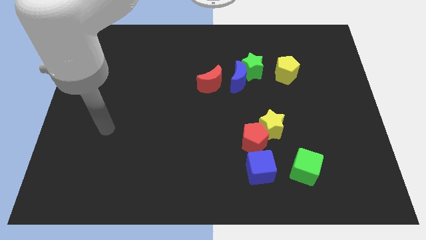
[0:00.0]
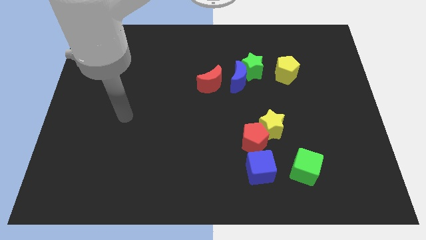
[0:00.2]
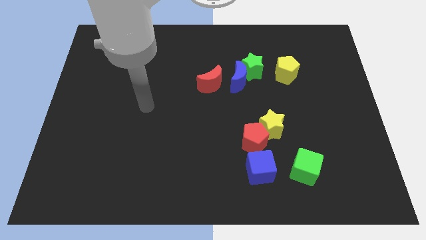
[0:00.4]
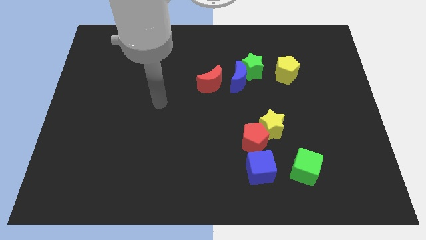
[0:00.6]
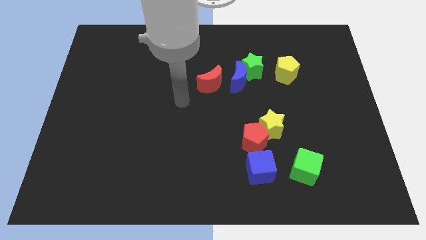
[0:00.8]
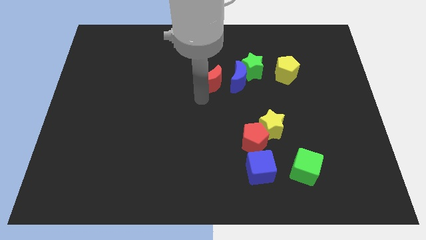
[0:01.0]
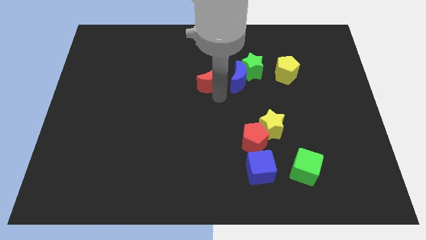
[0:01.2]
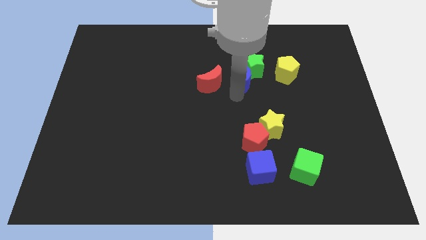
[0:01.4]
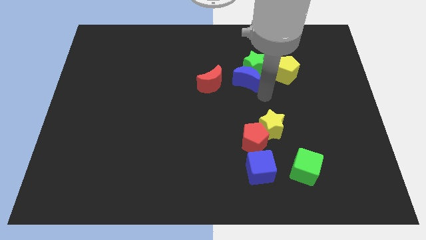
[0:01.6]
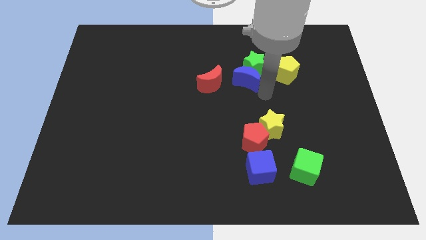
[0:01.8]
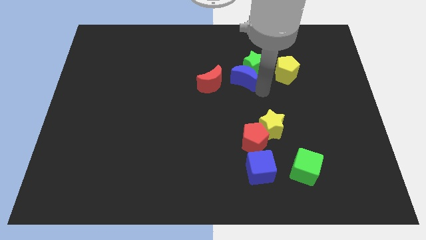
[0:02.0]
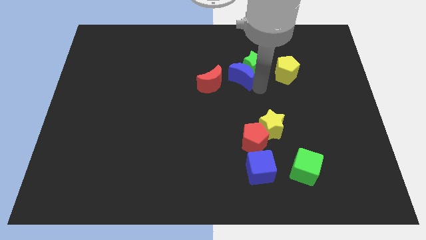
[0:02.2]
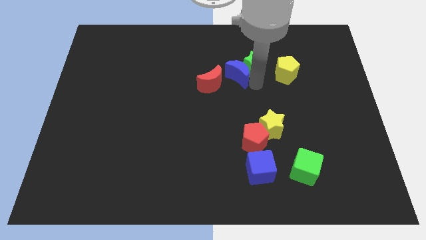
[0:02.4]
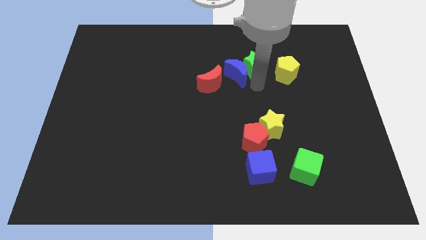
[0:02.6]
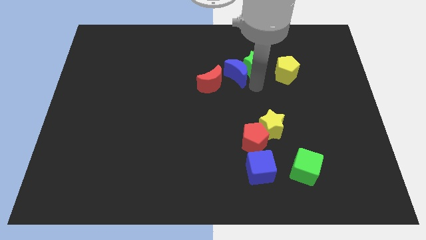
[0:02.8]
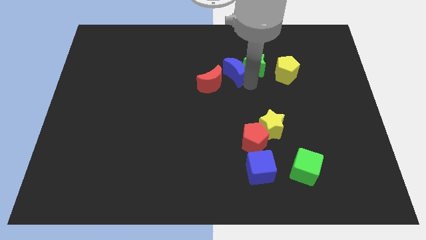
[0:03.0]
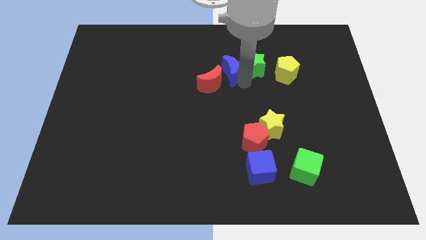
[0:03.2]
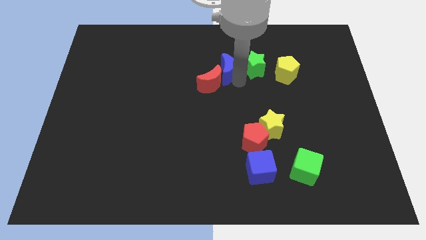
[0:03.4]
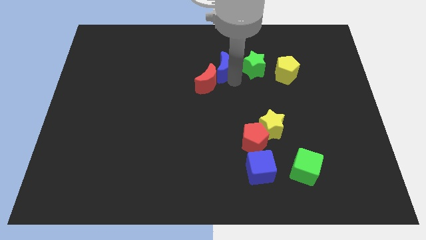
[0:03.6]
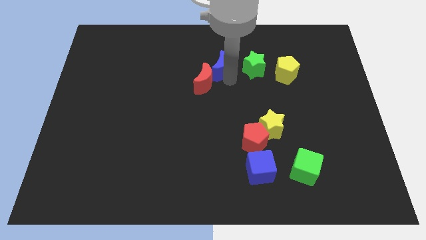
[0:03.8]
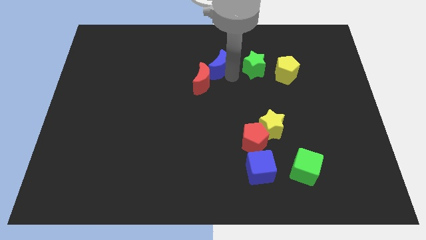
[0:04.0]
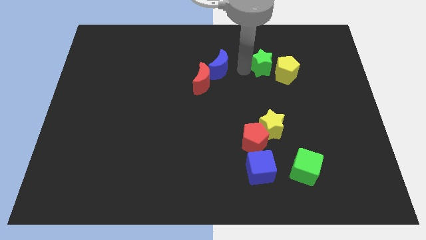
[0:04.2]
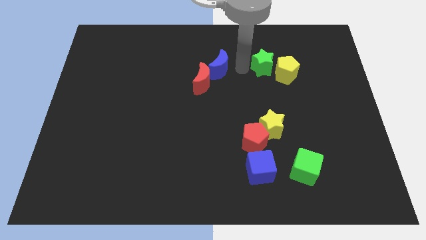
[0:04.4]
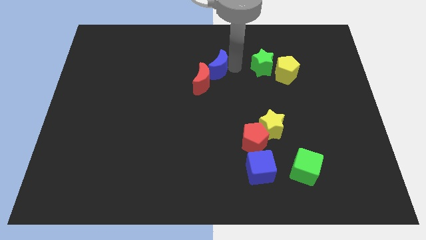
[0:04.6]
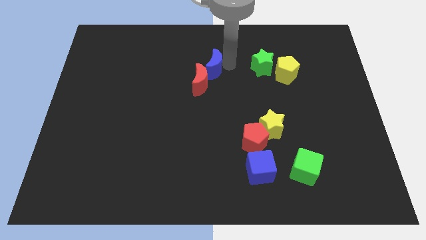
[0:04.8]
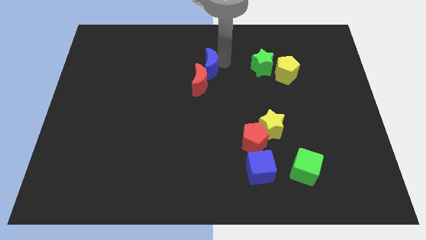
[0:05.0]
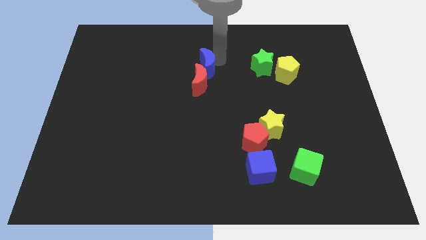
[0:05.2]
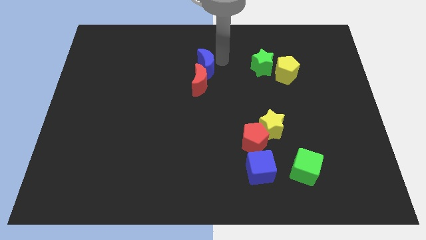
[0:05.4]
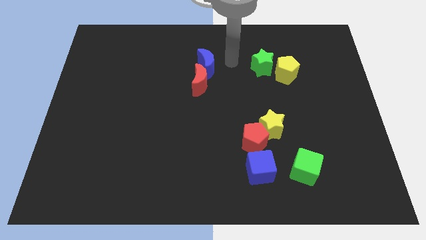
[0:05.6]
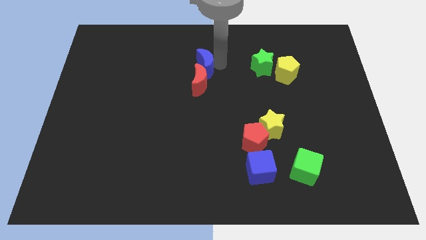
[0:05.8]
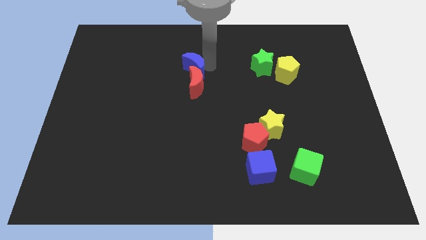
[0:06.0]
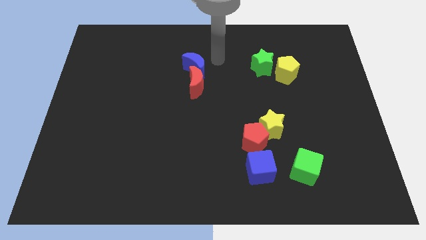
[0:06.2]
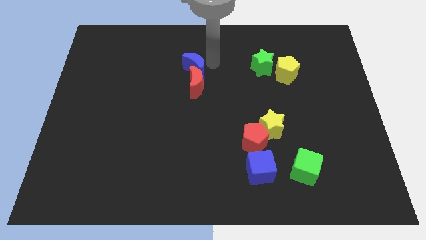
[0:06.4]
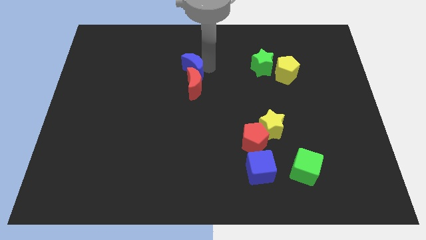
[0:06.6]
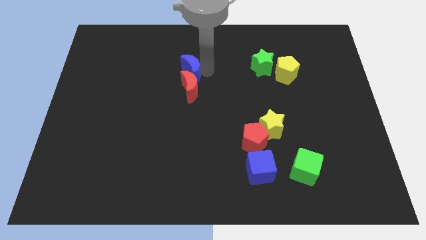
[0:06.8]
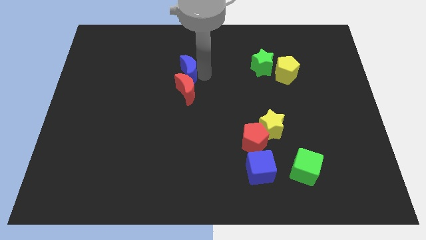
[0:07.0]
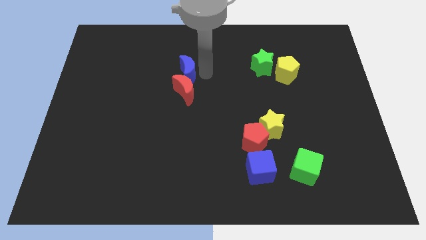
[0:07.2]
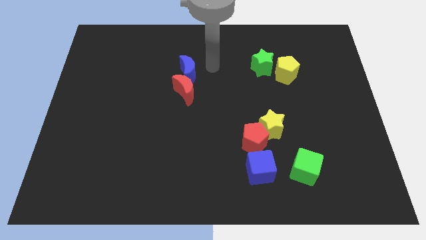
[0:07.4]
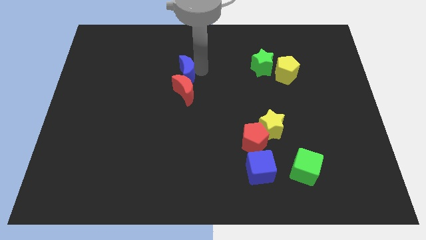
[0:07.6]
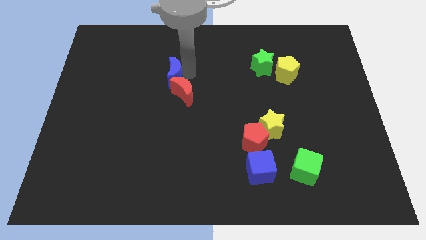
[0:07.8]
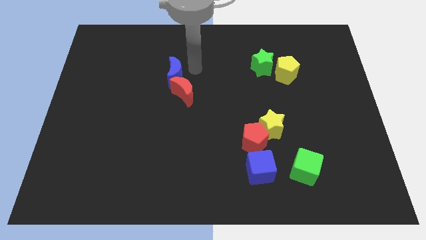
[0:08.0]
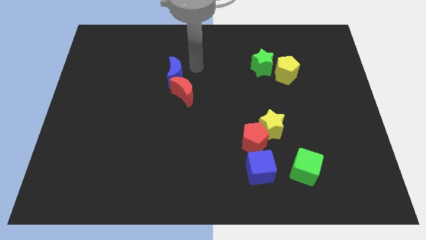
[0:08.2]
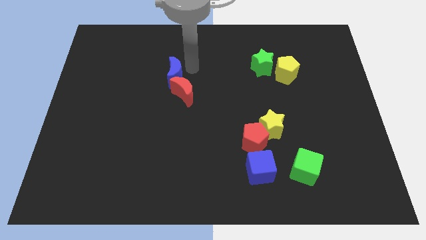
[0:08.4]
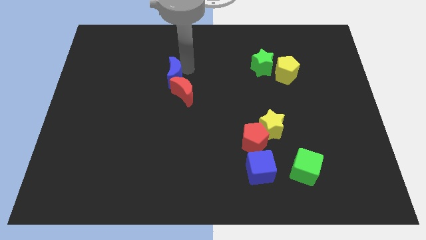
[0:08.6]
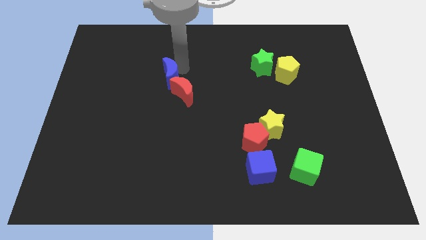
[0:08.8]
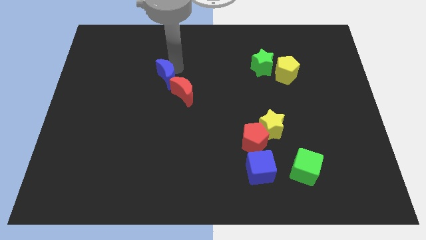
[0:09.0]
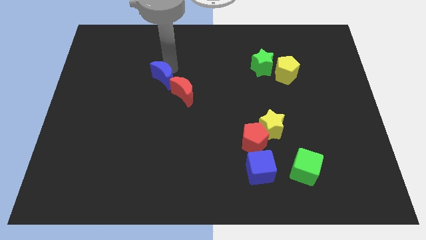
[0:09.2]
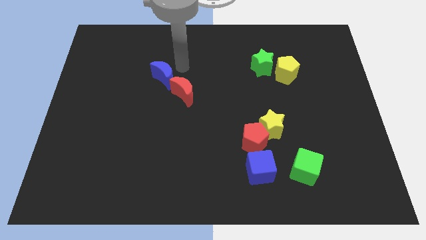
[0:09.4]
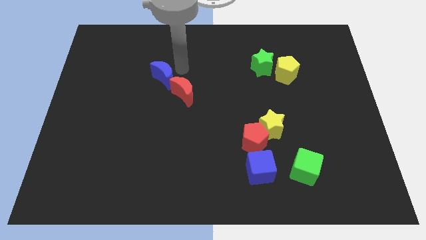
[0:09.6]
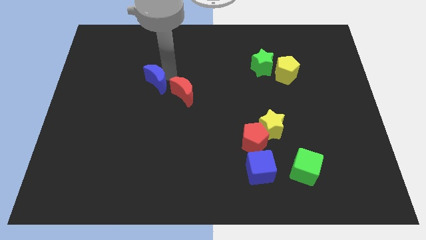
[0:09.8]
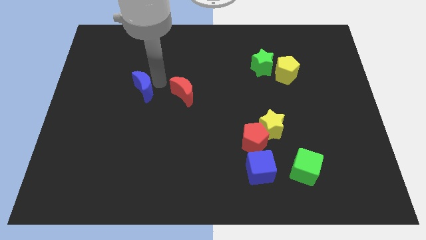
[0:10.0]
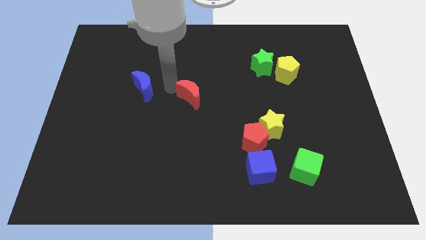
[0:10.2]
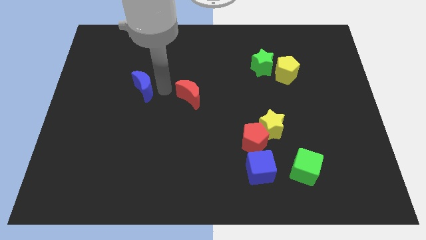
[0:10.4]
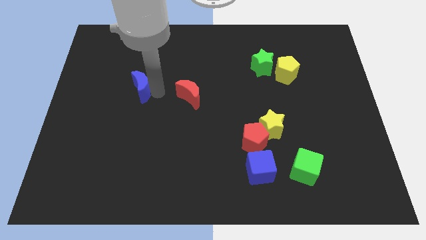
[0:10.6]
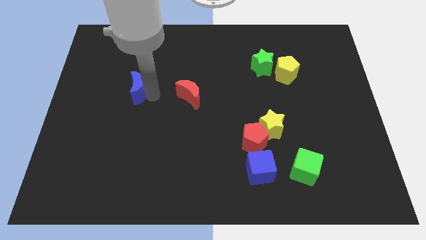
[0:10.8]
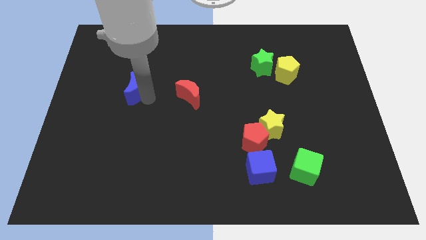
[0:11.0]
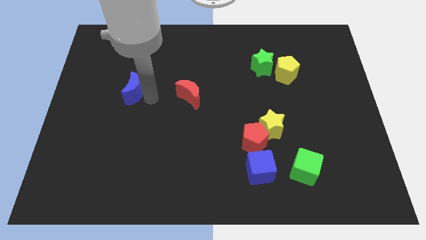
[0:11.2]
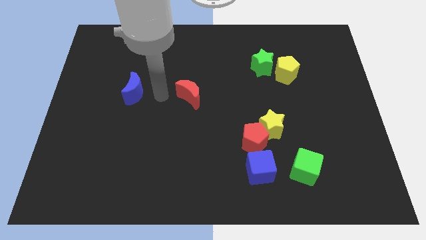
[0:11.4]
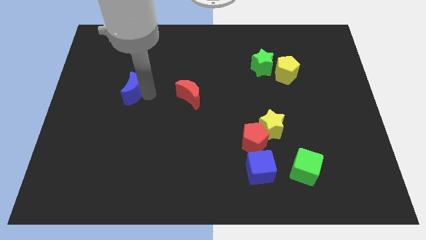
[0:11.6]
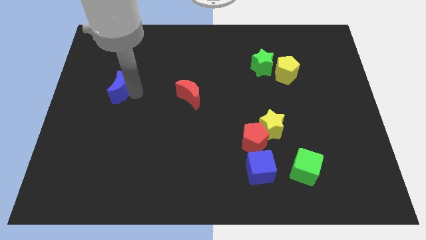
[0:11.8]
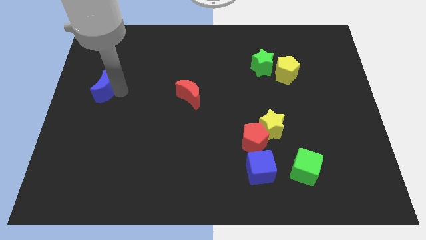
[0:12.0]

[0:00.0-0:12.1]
slide the blue moon to the center left

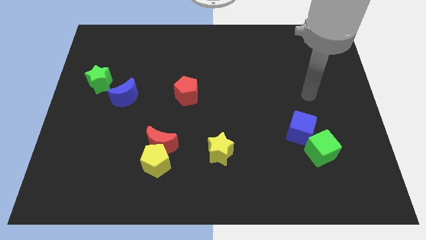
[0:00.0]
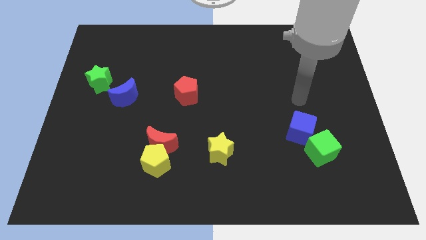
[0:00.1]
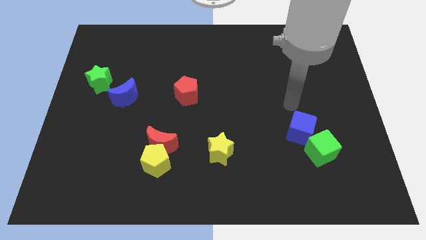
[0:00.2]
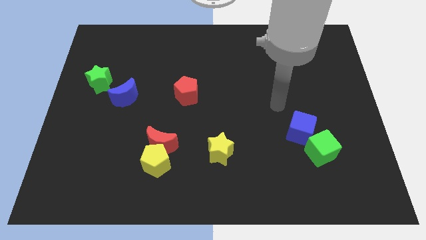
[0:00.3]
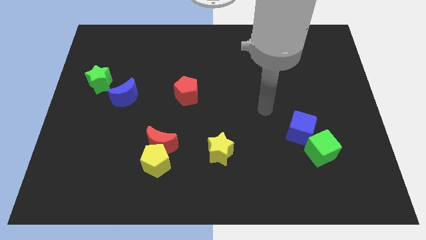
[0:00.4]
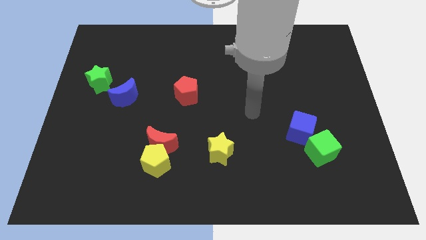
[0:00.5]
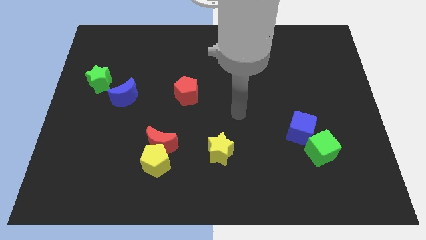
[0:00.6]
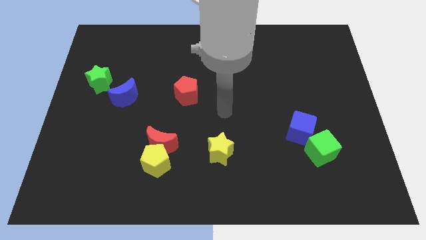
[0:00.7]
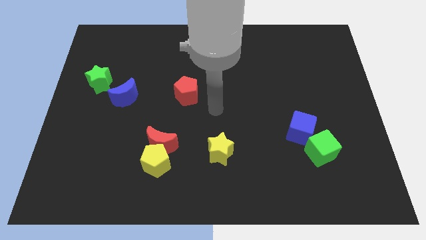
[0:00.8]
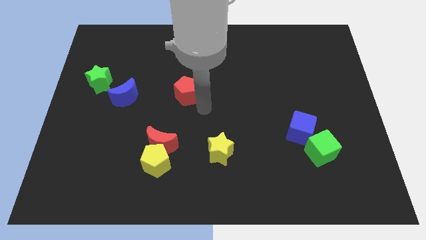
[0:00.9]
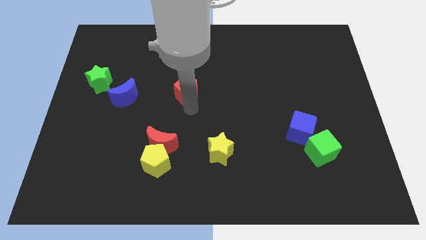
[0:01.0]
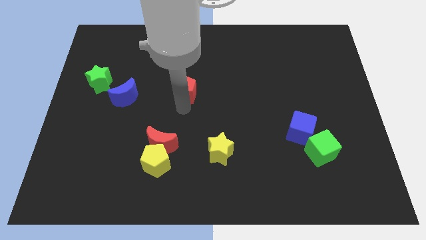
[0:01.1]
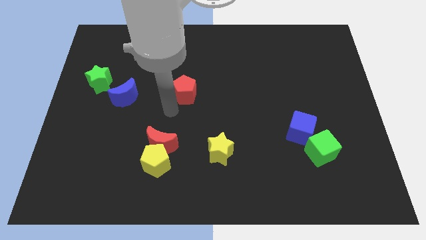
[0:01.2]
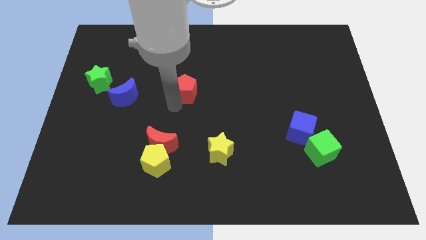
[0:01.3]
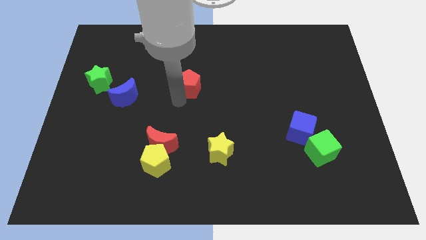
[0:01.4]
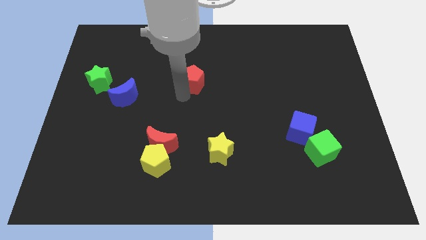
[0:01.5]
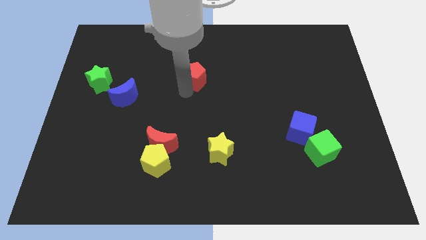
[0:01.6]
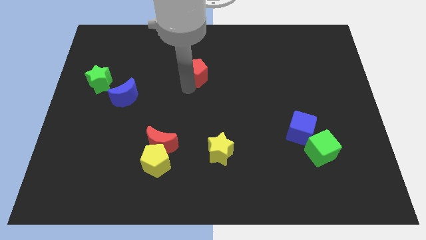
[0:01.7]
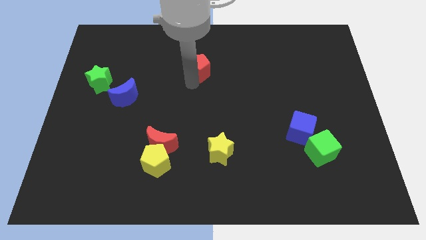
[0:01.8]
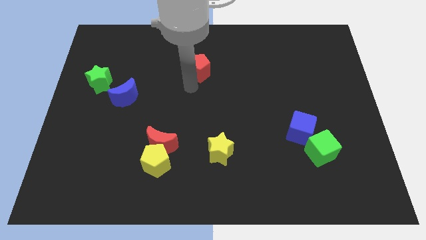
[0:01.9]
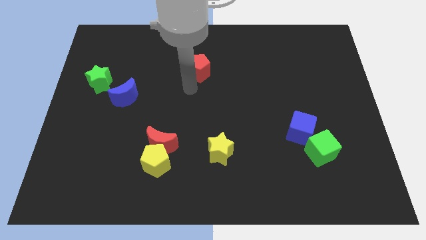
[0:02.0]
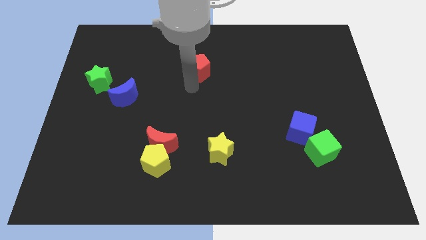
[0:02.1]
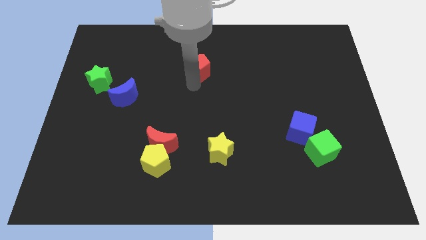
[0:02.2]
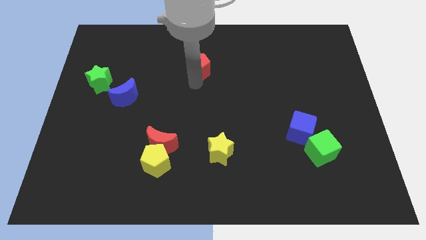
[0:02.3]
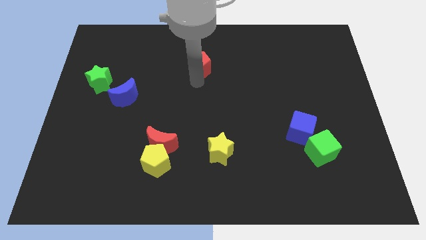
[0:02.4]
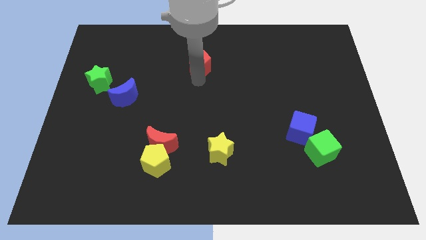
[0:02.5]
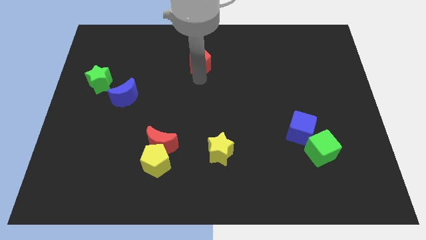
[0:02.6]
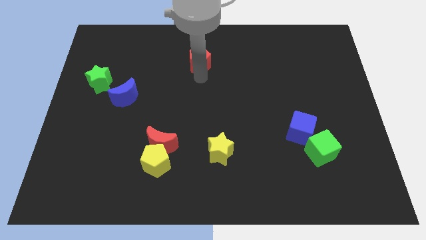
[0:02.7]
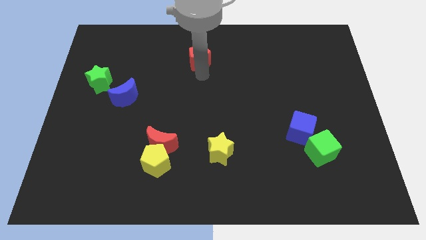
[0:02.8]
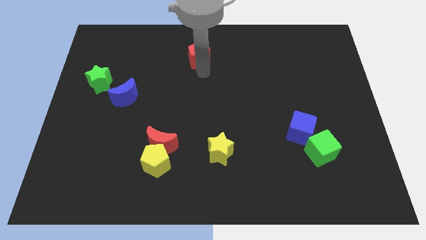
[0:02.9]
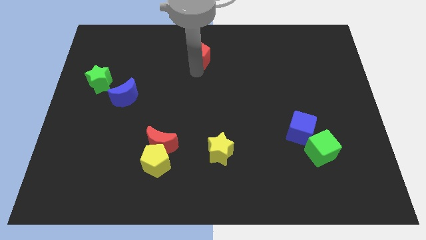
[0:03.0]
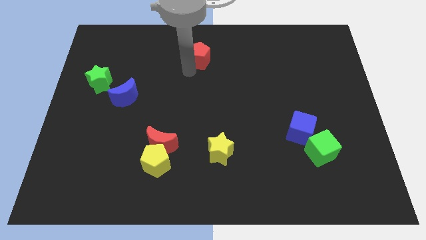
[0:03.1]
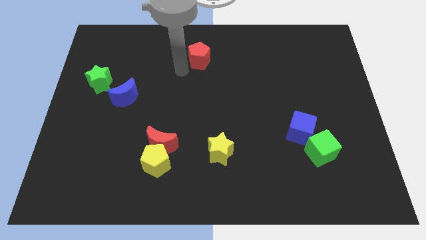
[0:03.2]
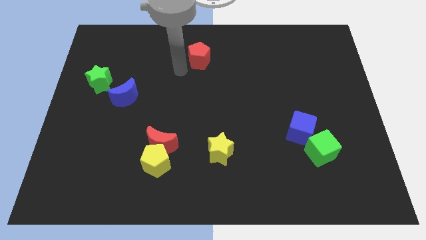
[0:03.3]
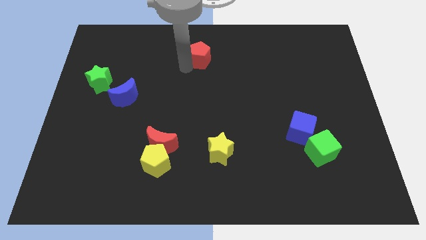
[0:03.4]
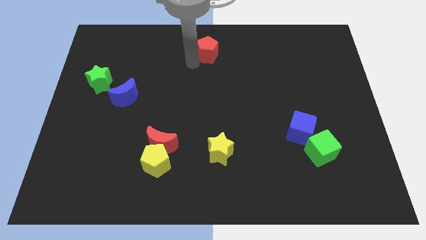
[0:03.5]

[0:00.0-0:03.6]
put the red pentagon to the top side
